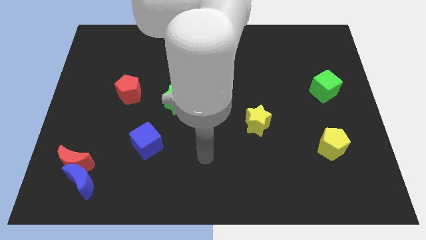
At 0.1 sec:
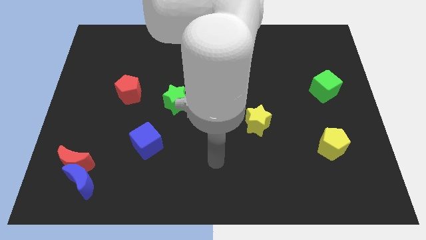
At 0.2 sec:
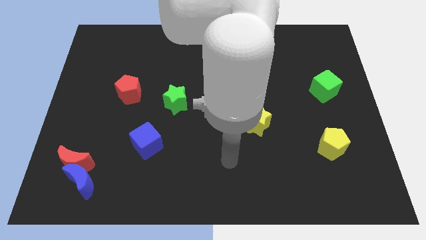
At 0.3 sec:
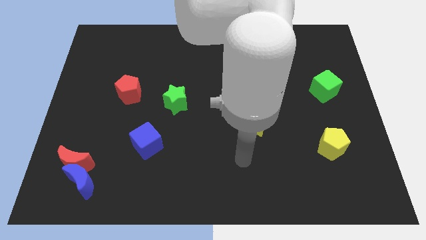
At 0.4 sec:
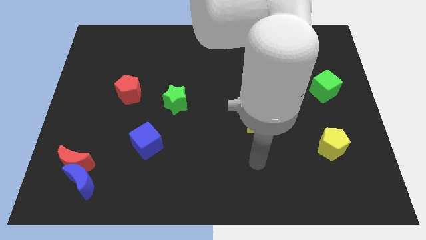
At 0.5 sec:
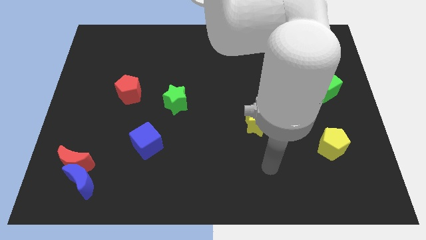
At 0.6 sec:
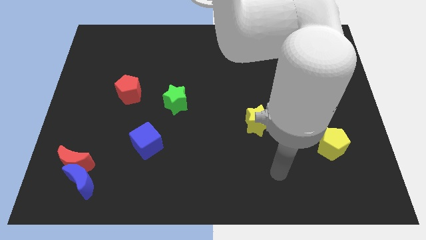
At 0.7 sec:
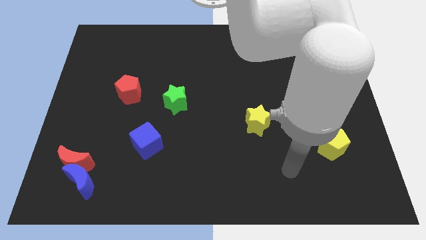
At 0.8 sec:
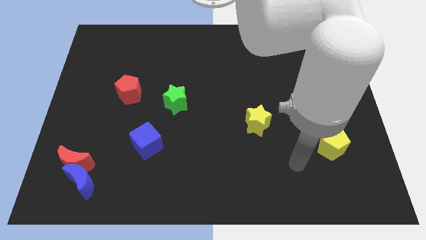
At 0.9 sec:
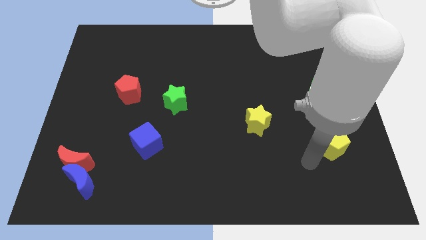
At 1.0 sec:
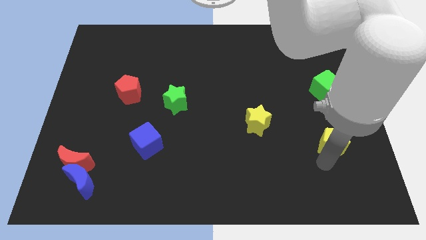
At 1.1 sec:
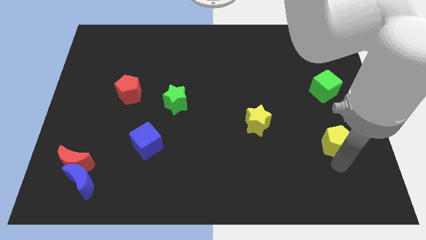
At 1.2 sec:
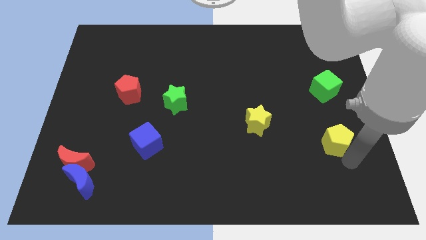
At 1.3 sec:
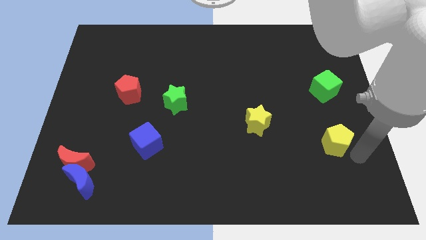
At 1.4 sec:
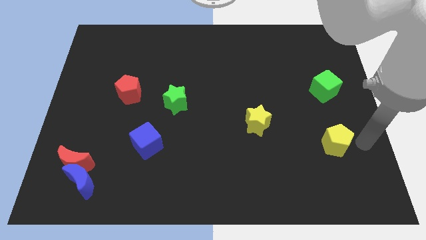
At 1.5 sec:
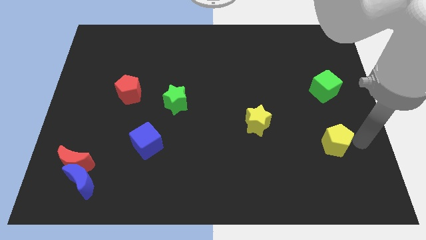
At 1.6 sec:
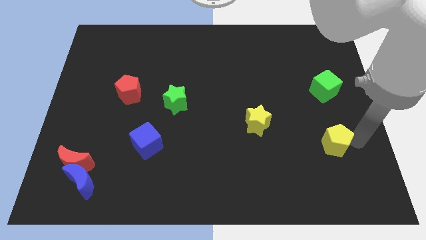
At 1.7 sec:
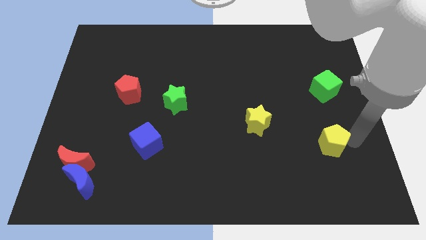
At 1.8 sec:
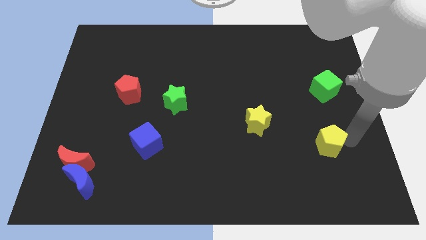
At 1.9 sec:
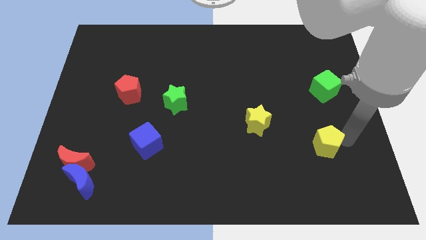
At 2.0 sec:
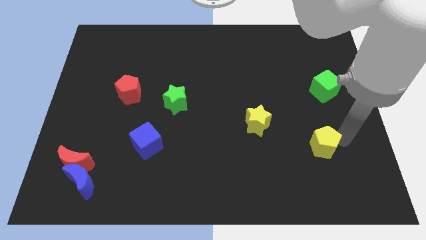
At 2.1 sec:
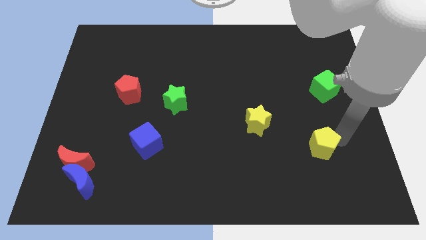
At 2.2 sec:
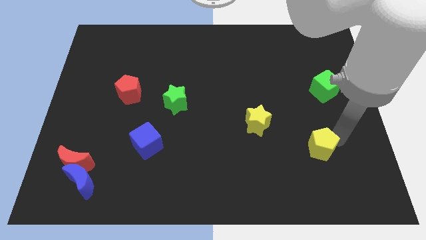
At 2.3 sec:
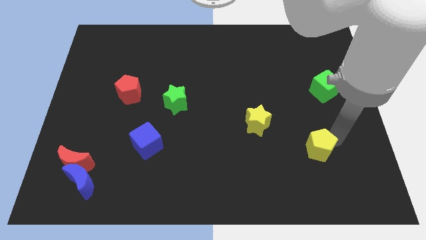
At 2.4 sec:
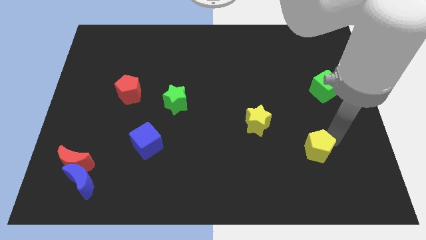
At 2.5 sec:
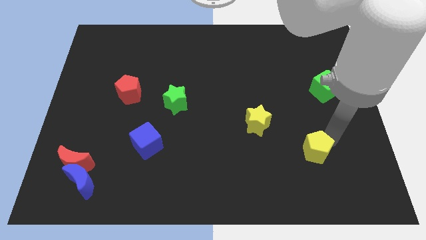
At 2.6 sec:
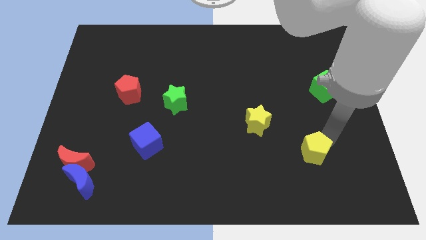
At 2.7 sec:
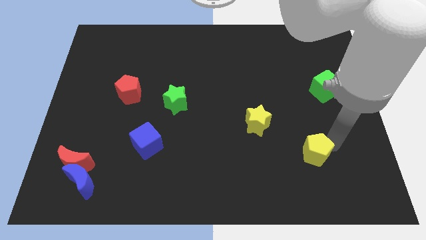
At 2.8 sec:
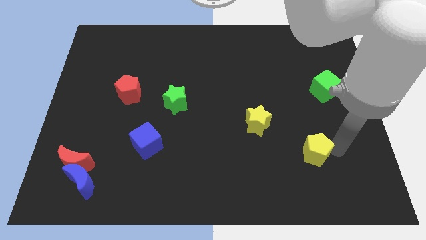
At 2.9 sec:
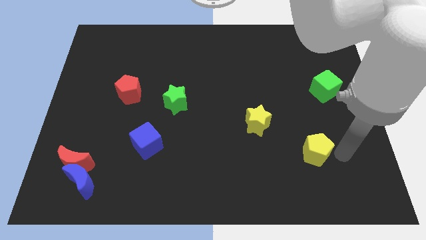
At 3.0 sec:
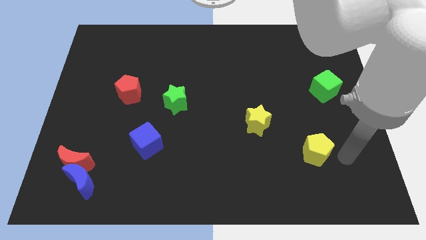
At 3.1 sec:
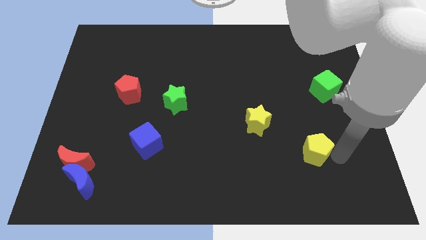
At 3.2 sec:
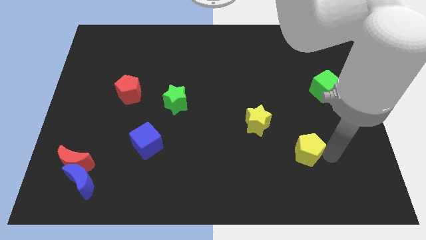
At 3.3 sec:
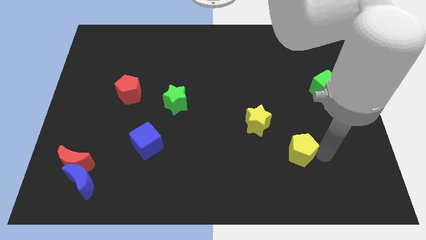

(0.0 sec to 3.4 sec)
move the yellow pentagon left a bit

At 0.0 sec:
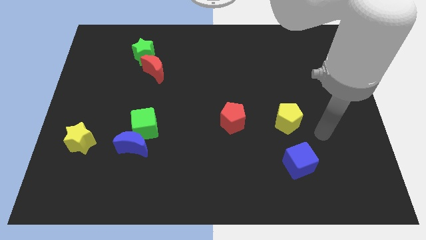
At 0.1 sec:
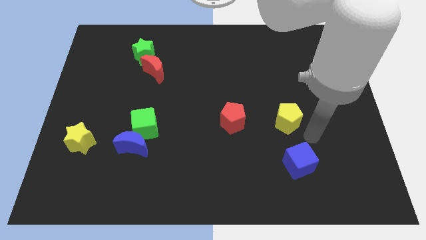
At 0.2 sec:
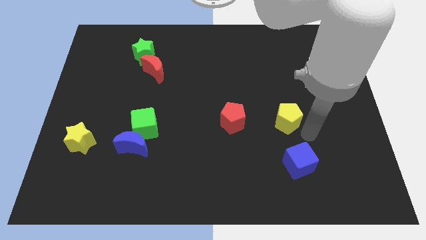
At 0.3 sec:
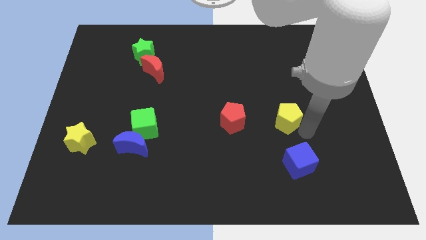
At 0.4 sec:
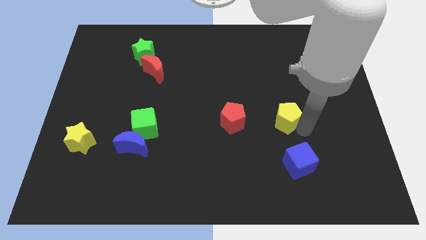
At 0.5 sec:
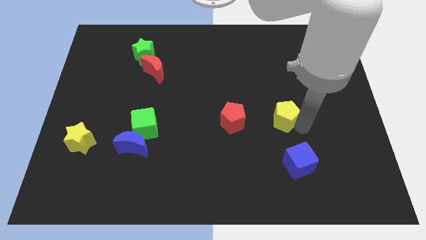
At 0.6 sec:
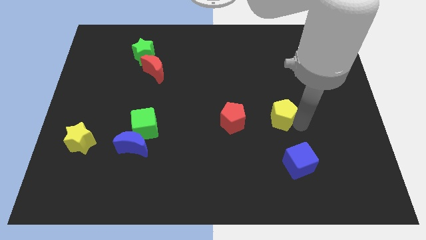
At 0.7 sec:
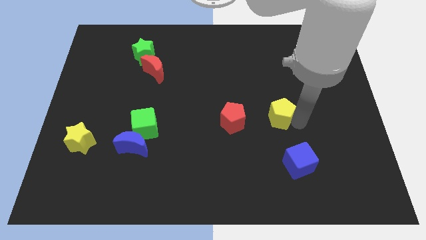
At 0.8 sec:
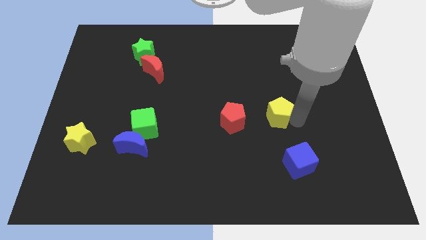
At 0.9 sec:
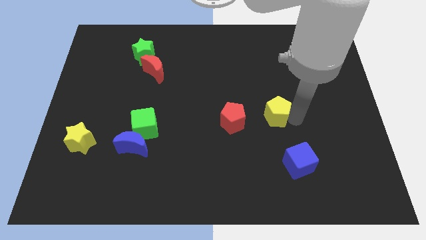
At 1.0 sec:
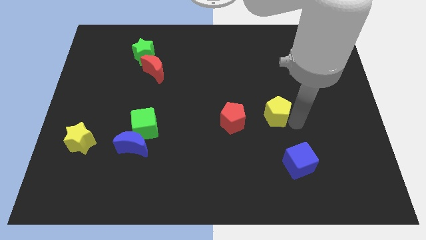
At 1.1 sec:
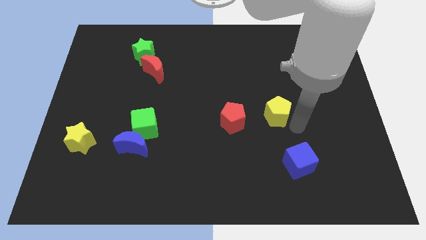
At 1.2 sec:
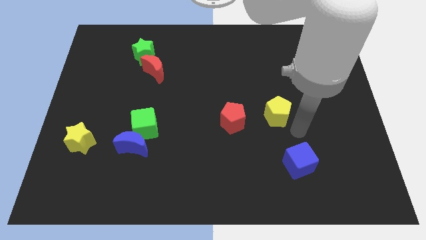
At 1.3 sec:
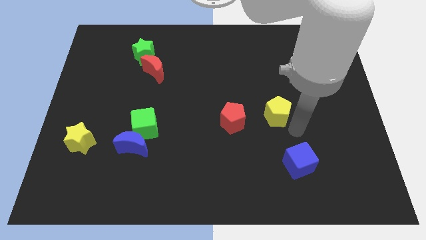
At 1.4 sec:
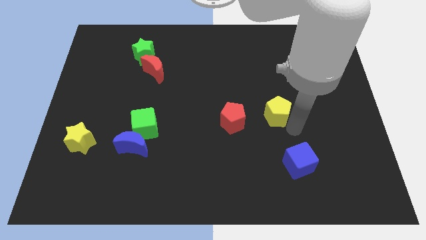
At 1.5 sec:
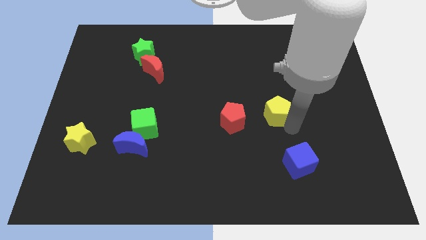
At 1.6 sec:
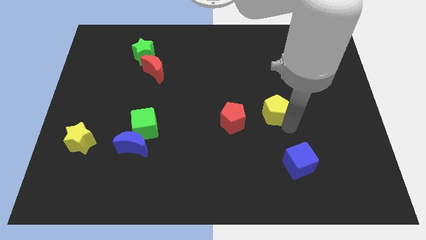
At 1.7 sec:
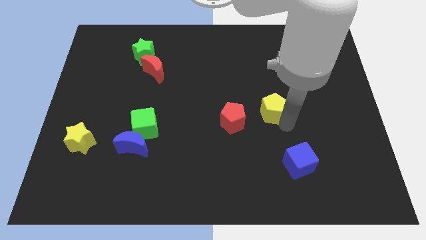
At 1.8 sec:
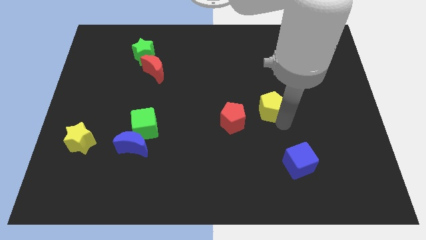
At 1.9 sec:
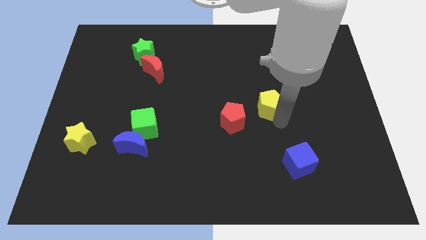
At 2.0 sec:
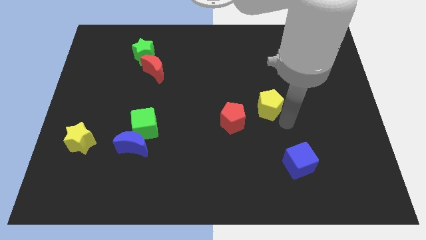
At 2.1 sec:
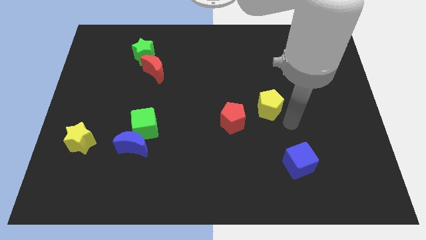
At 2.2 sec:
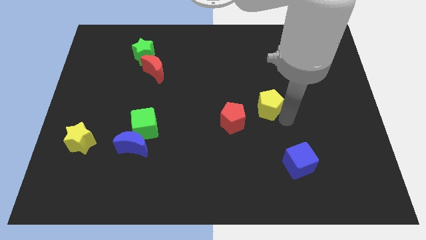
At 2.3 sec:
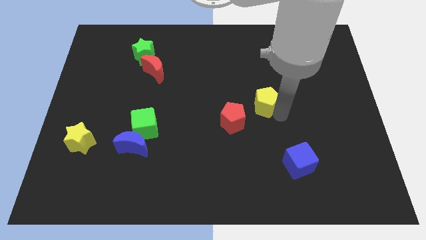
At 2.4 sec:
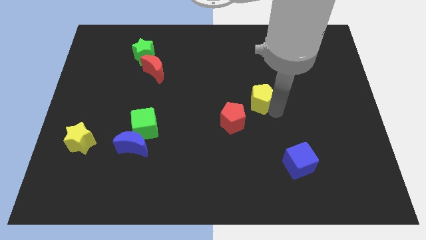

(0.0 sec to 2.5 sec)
move the yellow pentagon slightly up and left

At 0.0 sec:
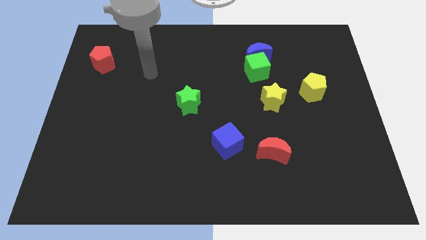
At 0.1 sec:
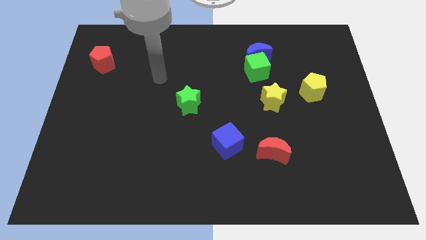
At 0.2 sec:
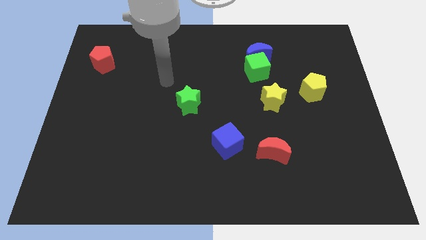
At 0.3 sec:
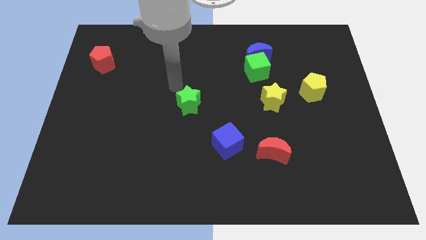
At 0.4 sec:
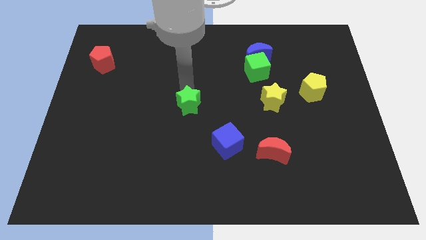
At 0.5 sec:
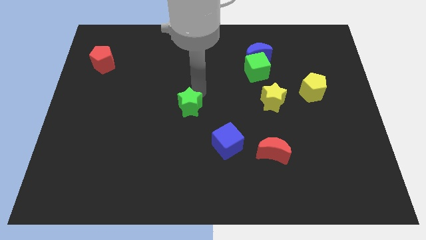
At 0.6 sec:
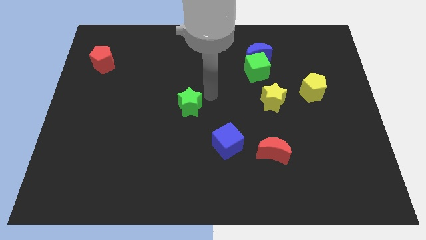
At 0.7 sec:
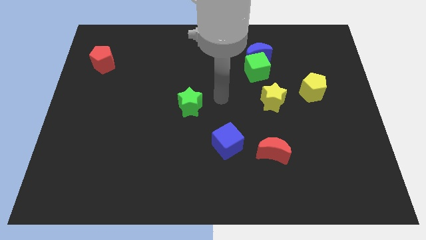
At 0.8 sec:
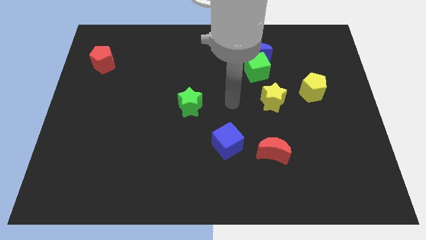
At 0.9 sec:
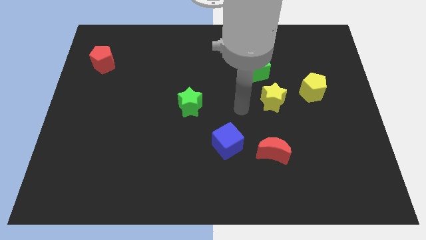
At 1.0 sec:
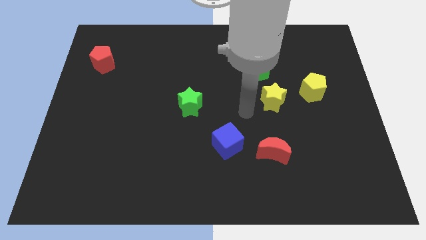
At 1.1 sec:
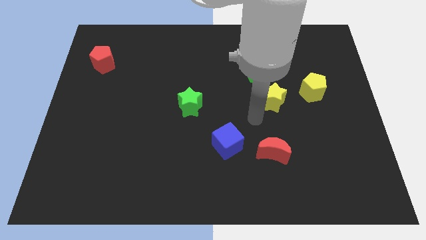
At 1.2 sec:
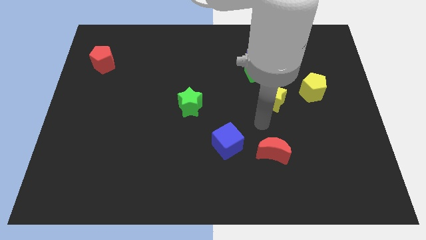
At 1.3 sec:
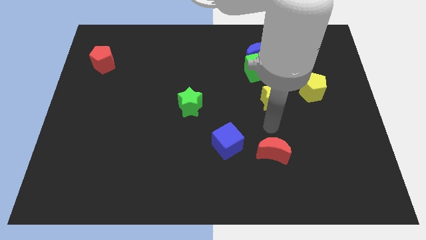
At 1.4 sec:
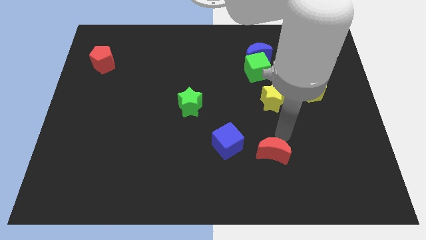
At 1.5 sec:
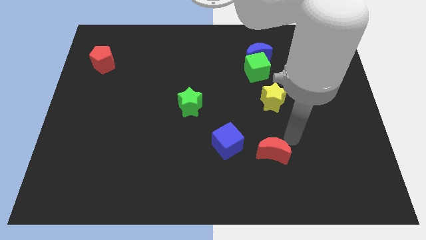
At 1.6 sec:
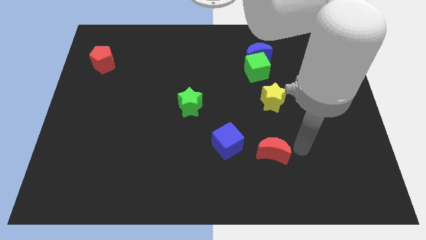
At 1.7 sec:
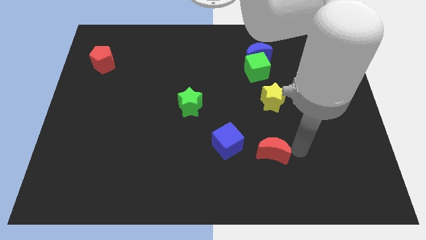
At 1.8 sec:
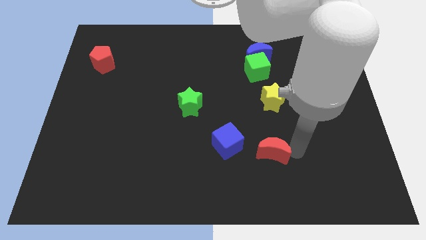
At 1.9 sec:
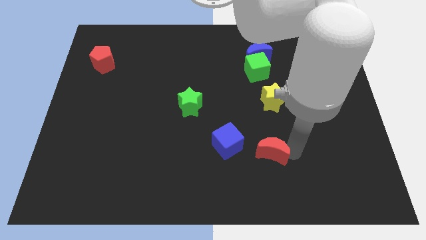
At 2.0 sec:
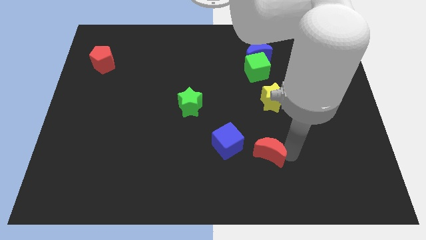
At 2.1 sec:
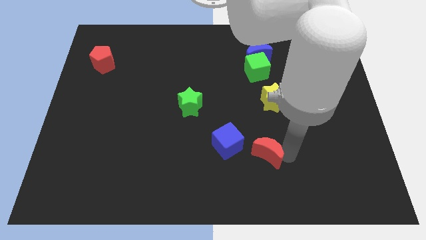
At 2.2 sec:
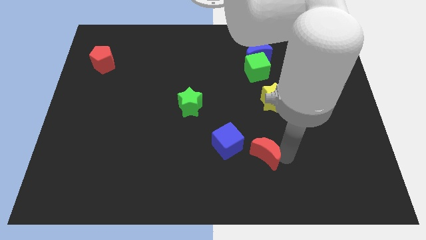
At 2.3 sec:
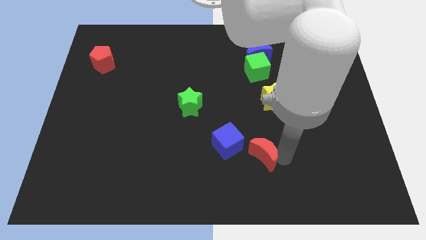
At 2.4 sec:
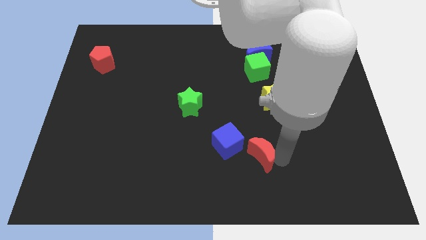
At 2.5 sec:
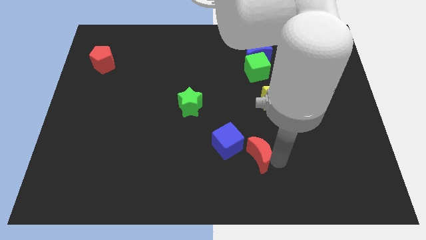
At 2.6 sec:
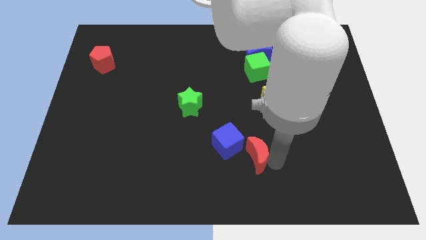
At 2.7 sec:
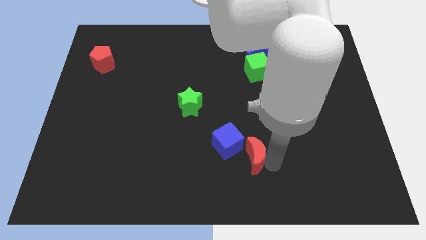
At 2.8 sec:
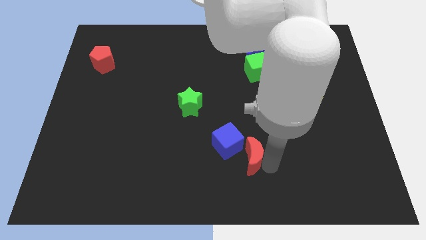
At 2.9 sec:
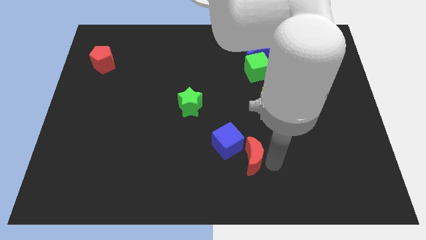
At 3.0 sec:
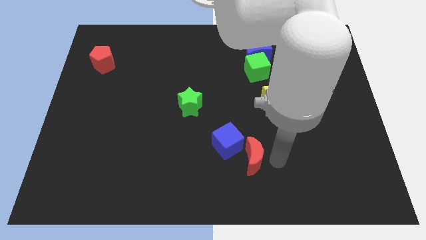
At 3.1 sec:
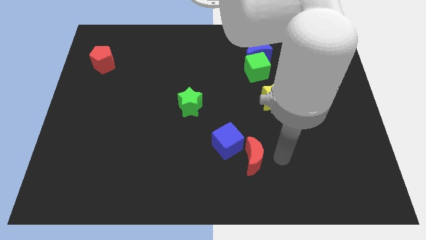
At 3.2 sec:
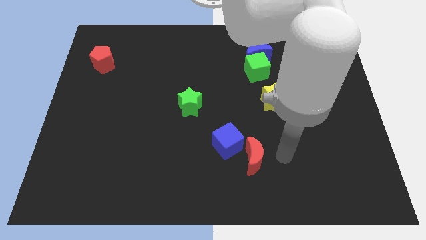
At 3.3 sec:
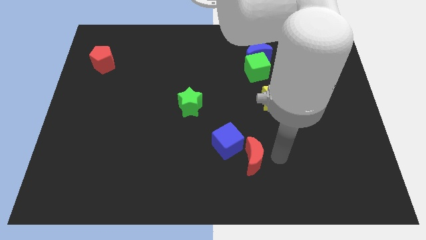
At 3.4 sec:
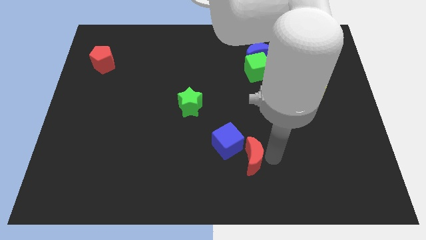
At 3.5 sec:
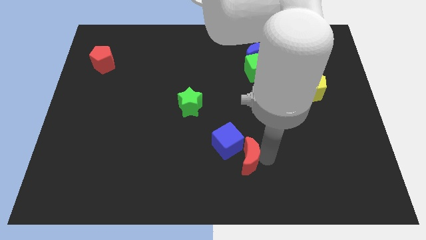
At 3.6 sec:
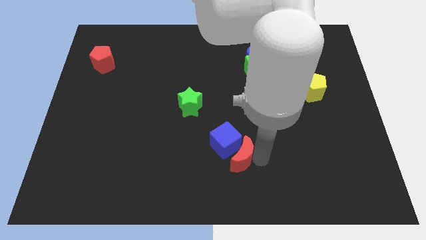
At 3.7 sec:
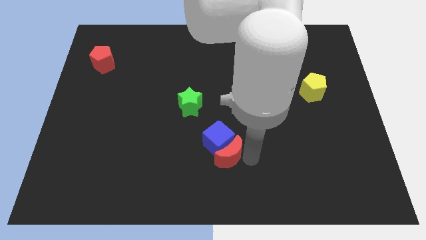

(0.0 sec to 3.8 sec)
push the red moon left a little
